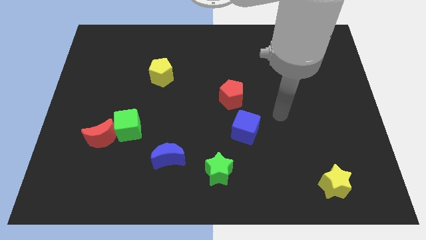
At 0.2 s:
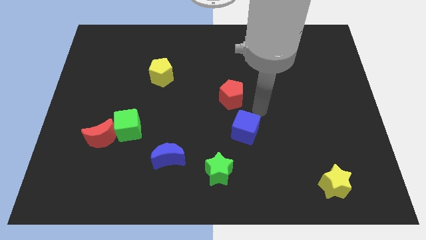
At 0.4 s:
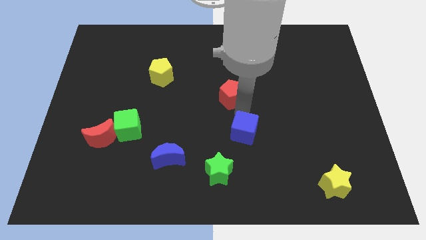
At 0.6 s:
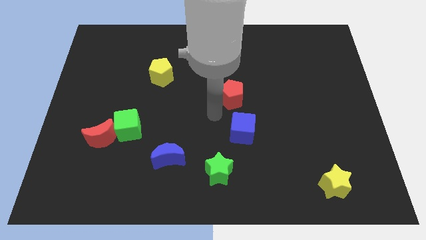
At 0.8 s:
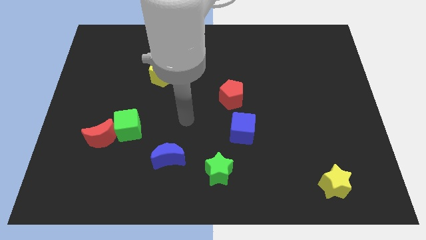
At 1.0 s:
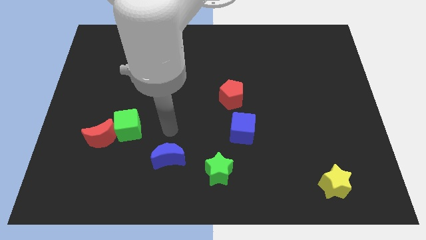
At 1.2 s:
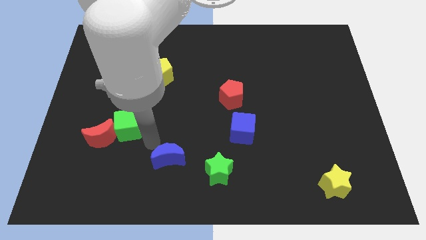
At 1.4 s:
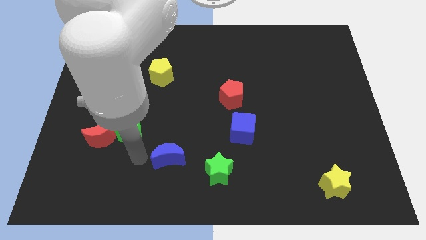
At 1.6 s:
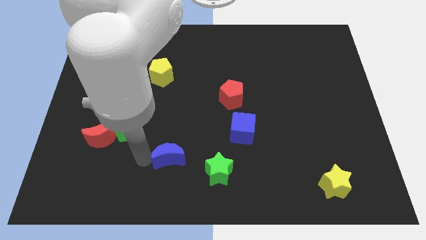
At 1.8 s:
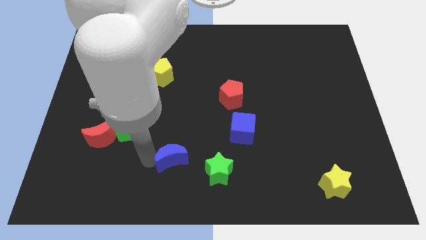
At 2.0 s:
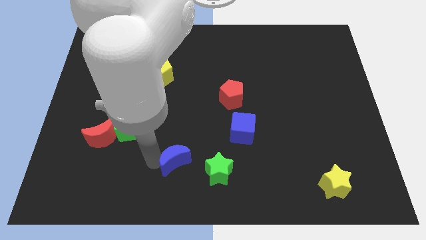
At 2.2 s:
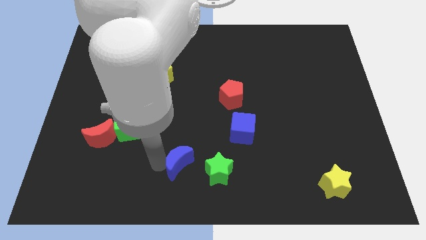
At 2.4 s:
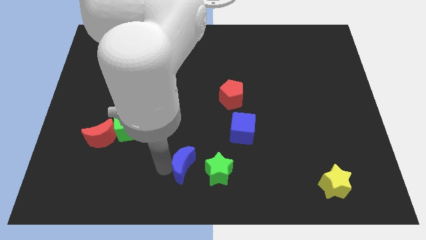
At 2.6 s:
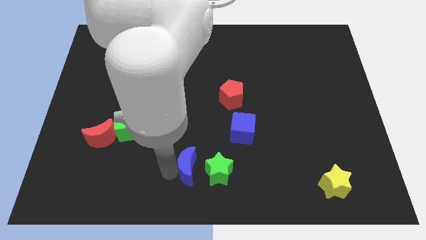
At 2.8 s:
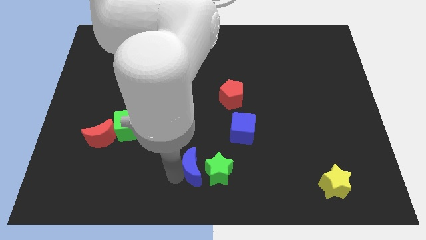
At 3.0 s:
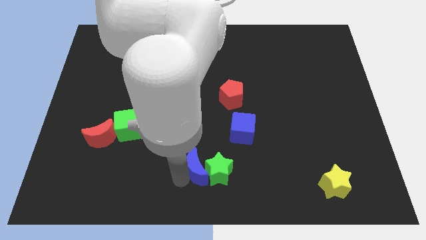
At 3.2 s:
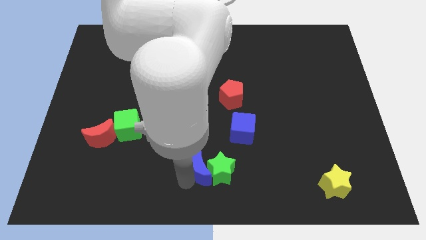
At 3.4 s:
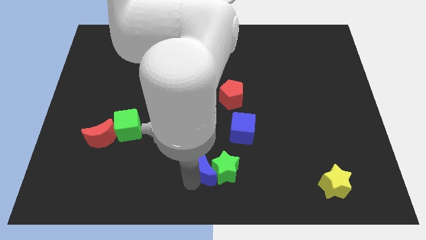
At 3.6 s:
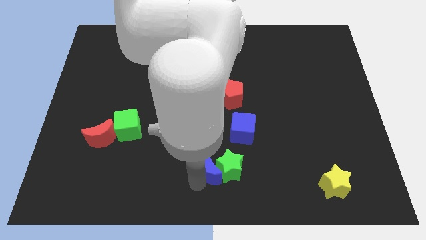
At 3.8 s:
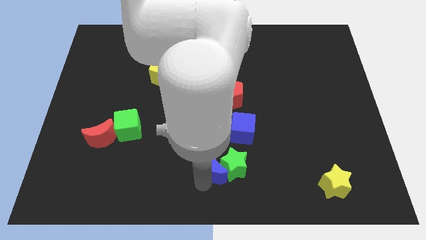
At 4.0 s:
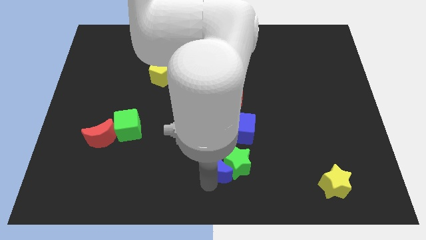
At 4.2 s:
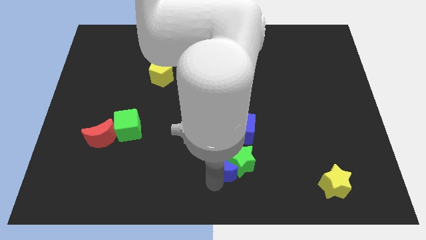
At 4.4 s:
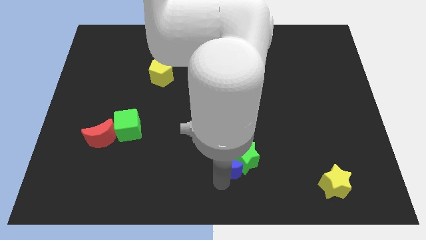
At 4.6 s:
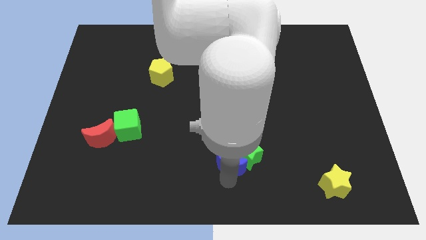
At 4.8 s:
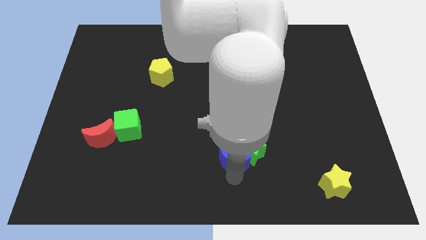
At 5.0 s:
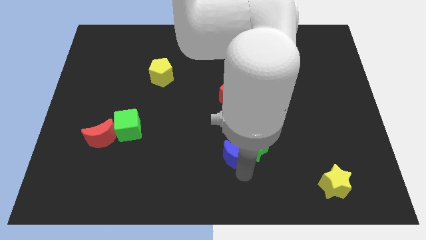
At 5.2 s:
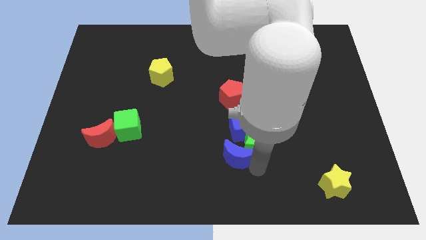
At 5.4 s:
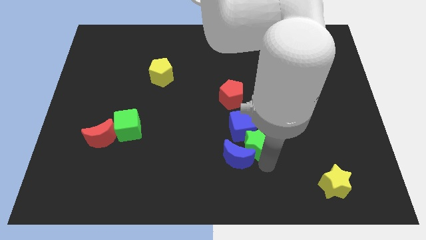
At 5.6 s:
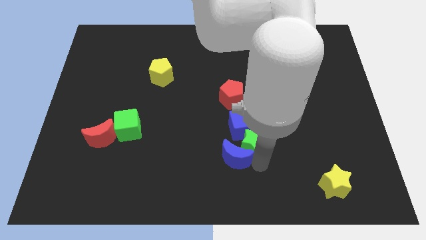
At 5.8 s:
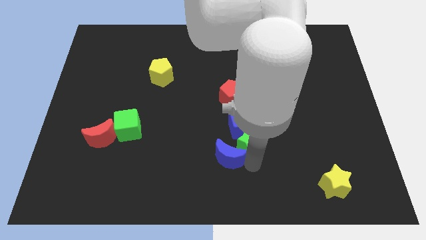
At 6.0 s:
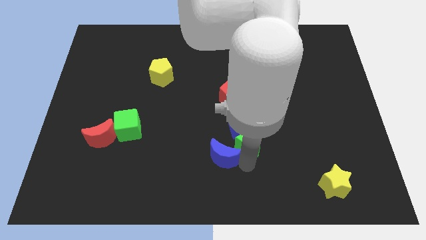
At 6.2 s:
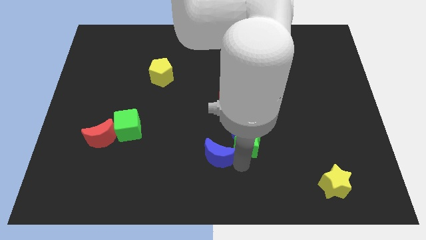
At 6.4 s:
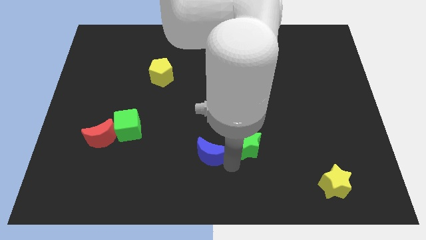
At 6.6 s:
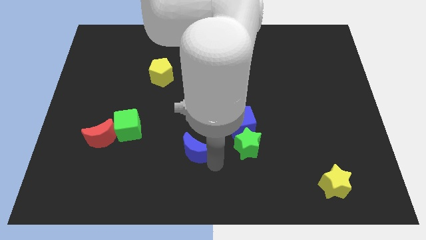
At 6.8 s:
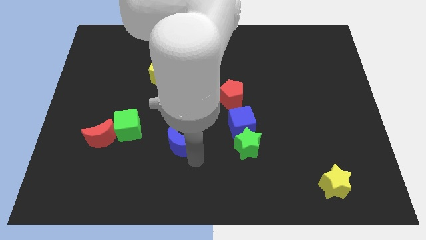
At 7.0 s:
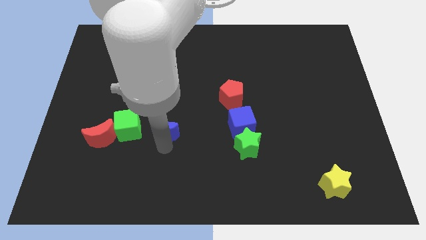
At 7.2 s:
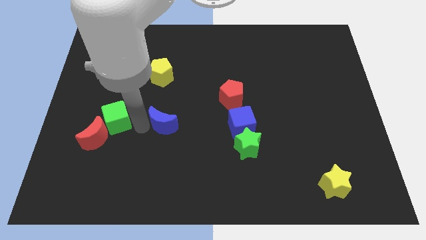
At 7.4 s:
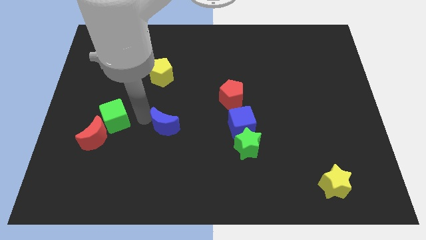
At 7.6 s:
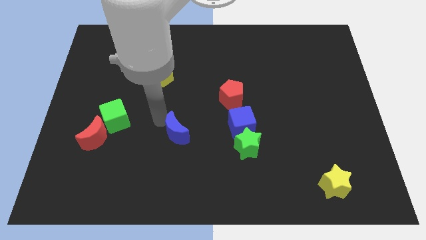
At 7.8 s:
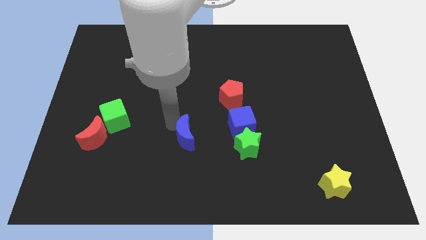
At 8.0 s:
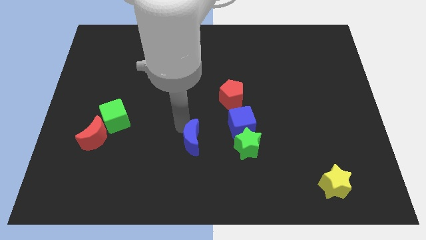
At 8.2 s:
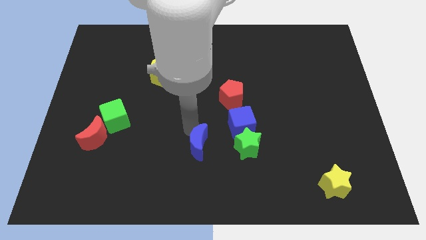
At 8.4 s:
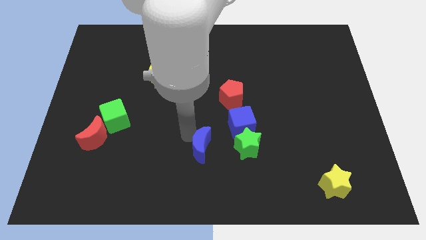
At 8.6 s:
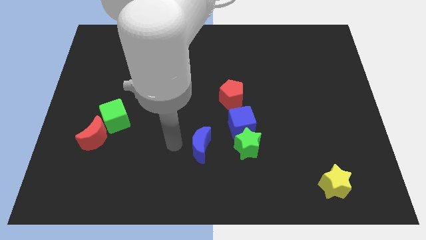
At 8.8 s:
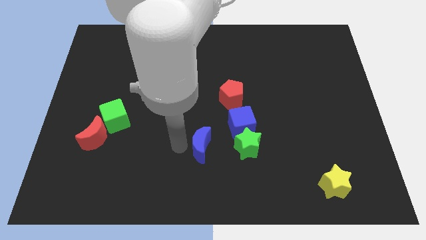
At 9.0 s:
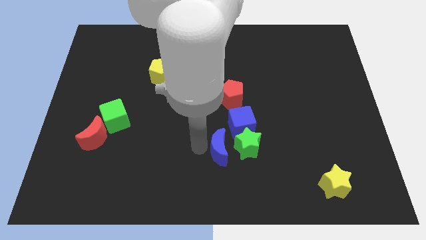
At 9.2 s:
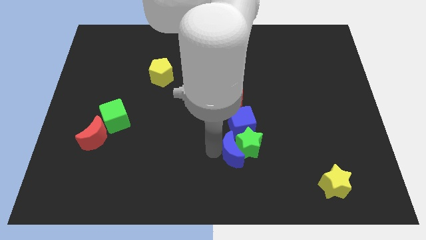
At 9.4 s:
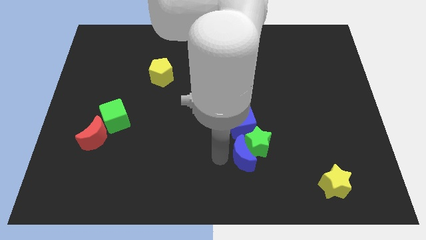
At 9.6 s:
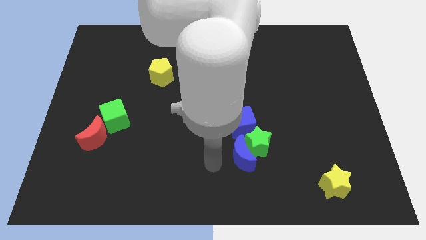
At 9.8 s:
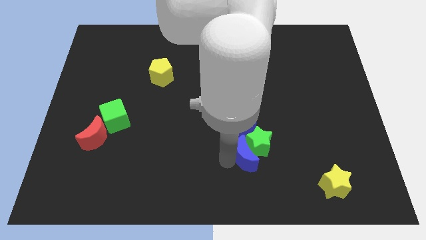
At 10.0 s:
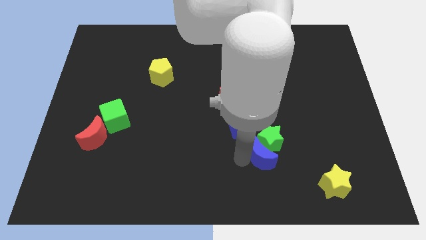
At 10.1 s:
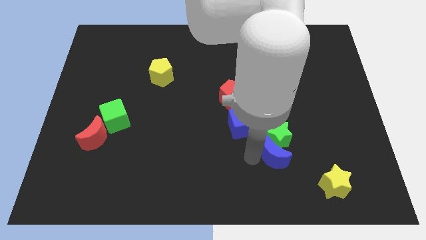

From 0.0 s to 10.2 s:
move the blue moon to the right

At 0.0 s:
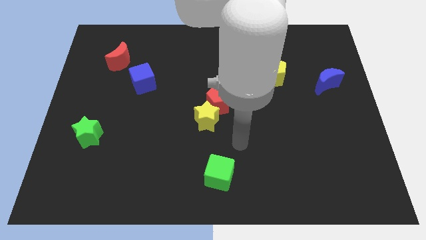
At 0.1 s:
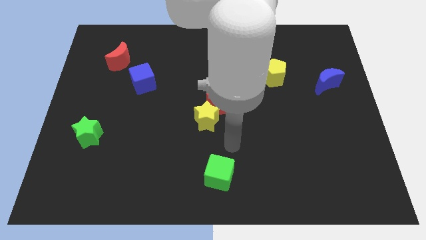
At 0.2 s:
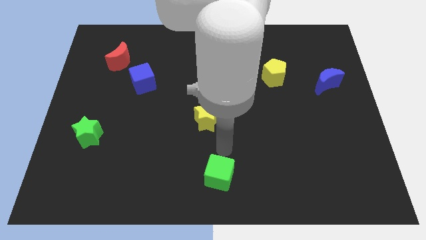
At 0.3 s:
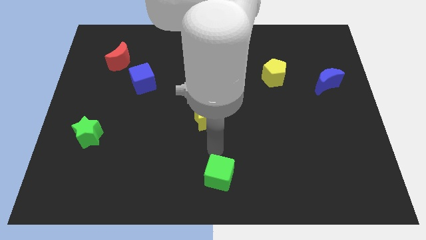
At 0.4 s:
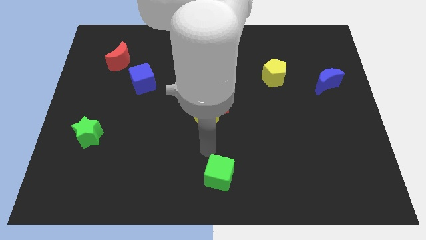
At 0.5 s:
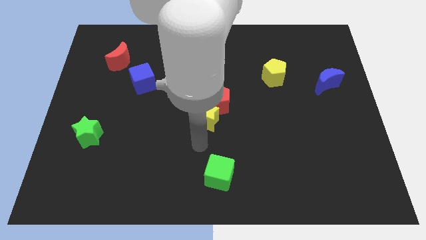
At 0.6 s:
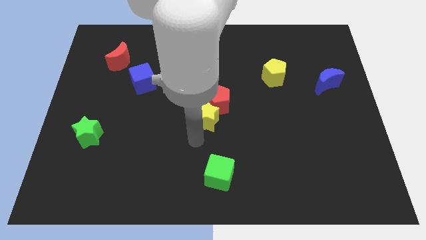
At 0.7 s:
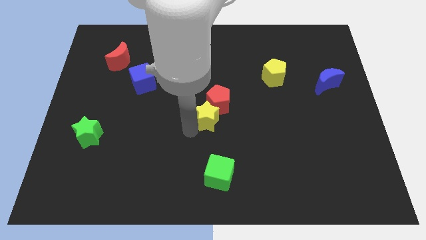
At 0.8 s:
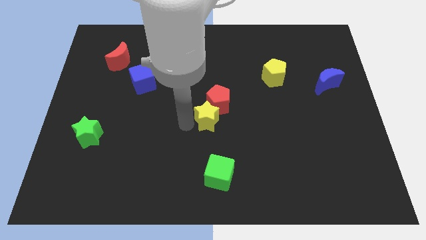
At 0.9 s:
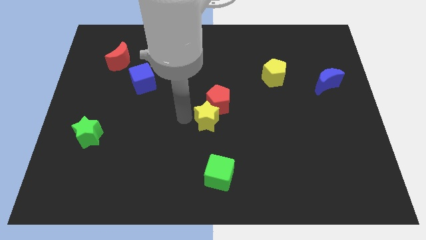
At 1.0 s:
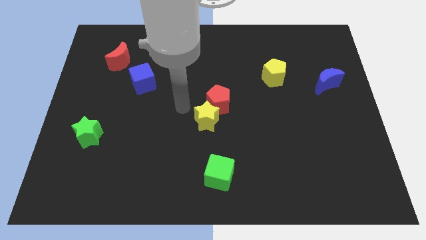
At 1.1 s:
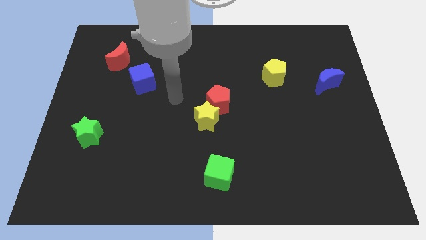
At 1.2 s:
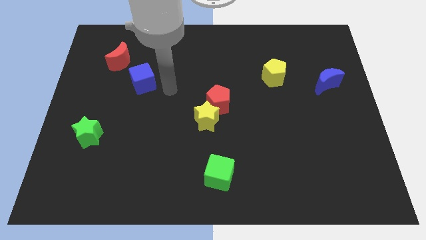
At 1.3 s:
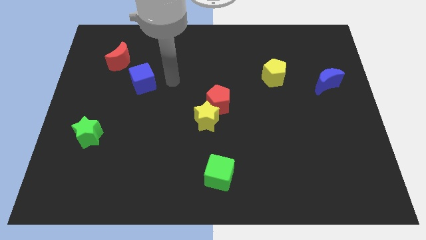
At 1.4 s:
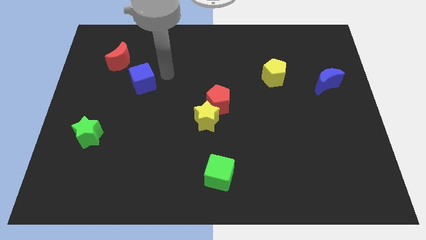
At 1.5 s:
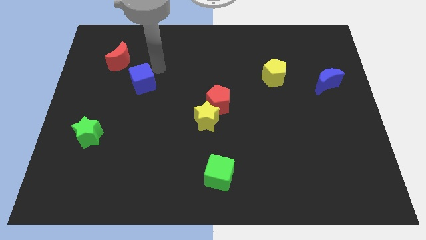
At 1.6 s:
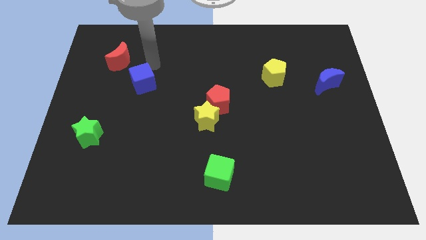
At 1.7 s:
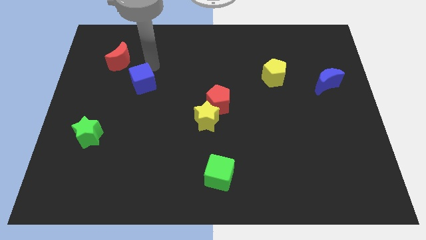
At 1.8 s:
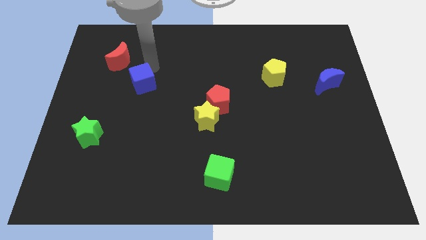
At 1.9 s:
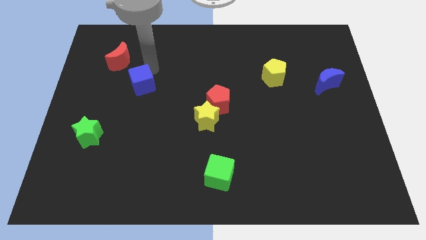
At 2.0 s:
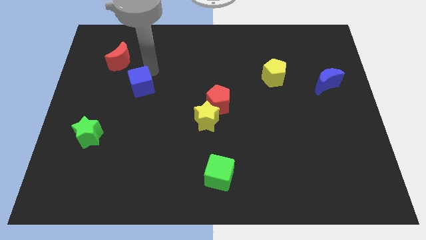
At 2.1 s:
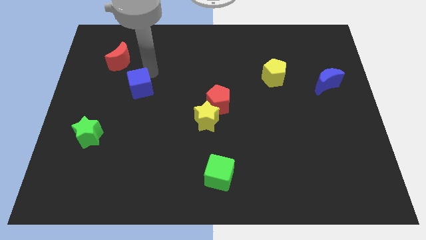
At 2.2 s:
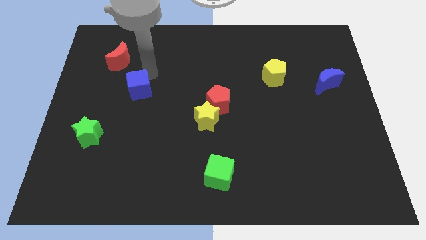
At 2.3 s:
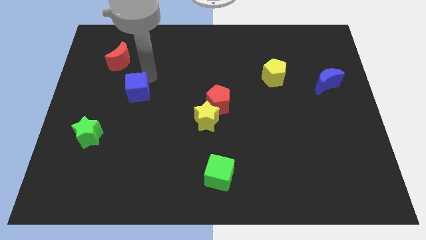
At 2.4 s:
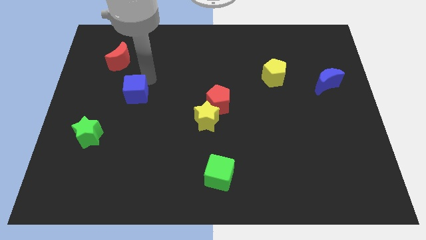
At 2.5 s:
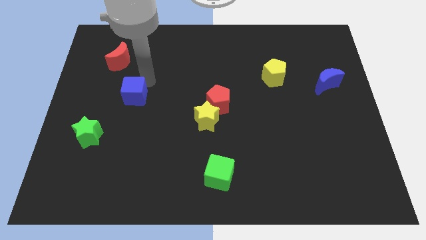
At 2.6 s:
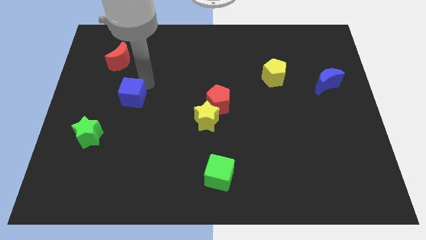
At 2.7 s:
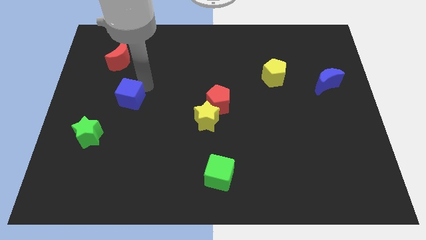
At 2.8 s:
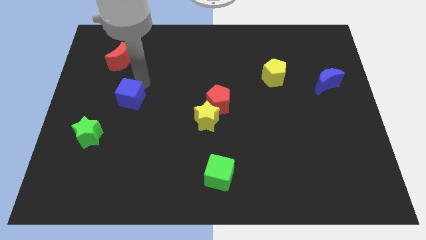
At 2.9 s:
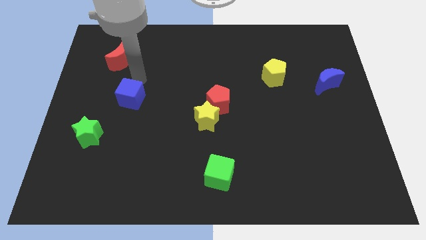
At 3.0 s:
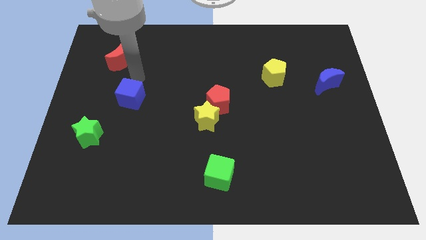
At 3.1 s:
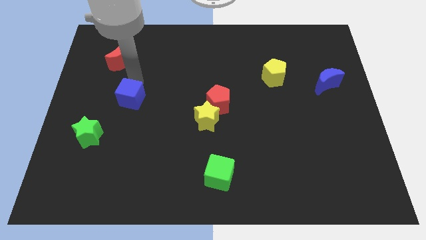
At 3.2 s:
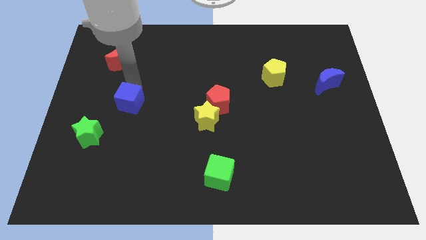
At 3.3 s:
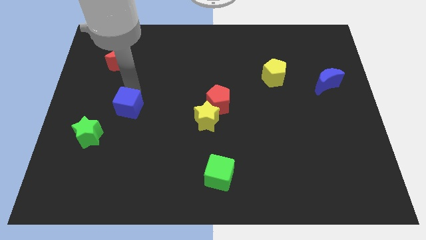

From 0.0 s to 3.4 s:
slightly move the blue cube down
